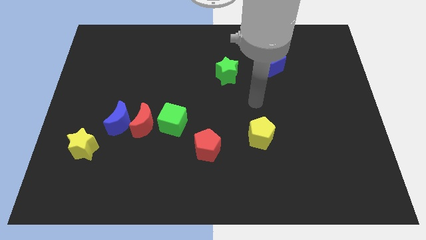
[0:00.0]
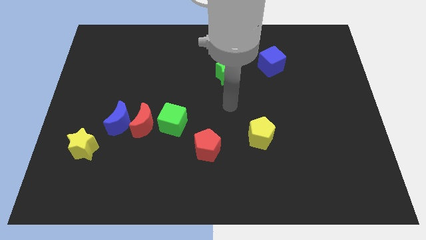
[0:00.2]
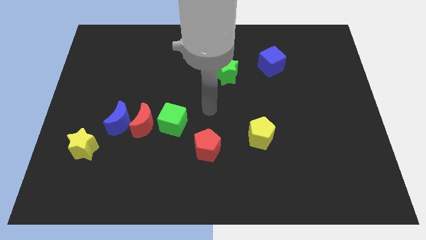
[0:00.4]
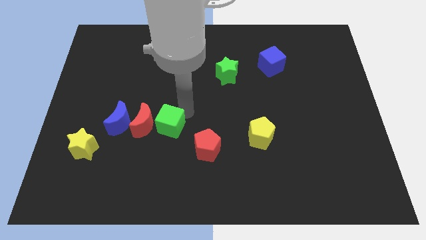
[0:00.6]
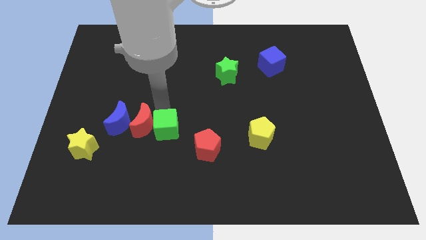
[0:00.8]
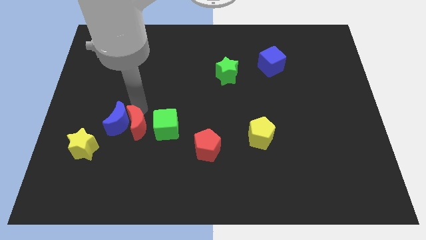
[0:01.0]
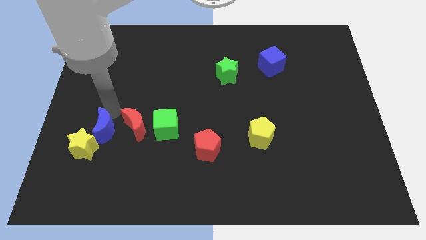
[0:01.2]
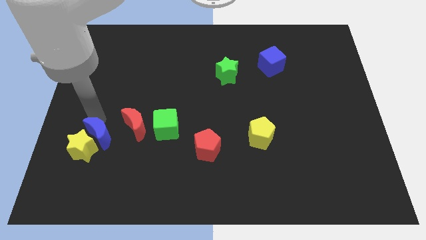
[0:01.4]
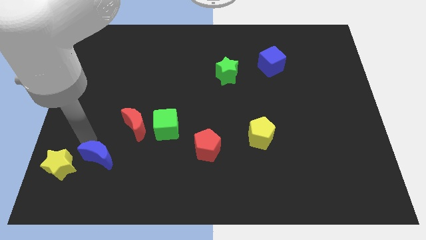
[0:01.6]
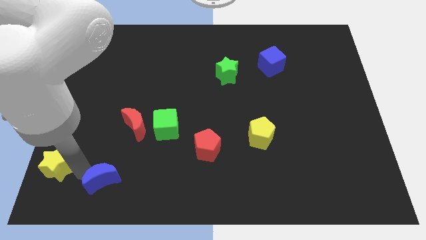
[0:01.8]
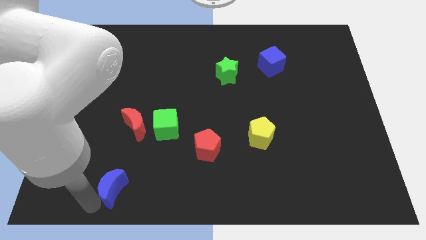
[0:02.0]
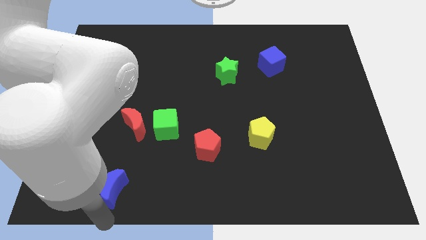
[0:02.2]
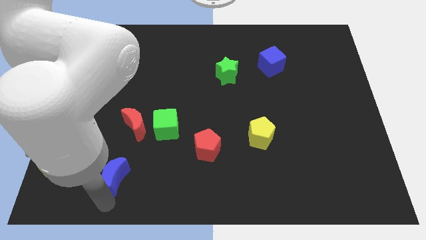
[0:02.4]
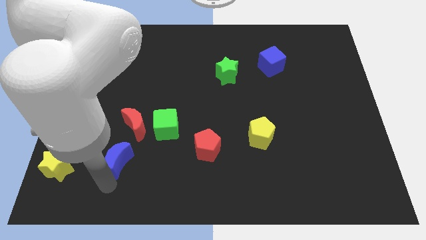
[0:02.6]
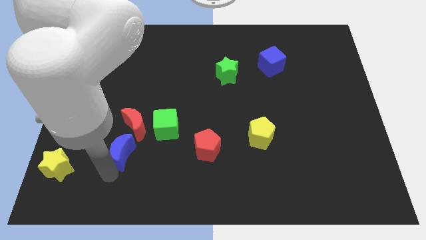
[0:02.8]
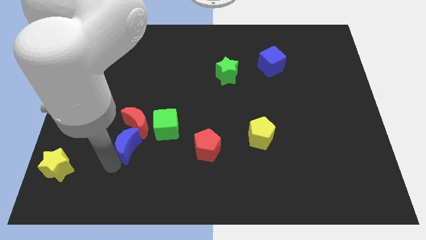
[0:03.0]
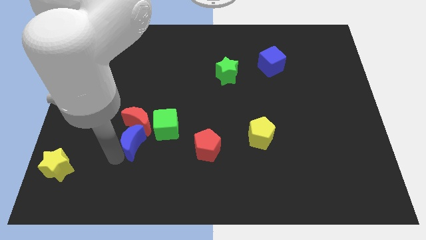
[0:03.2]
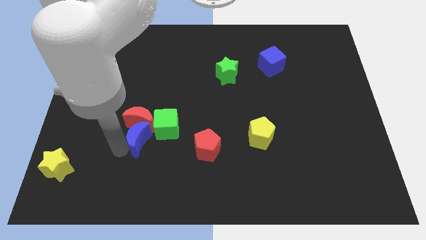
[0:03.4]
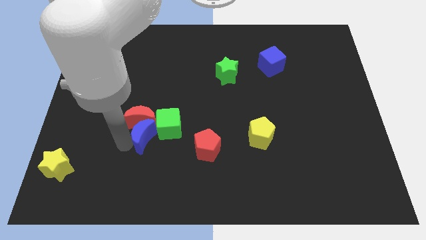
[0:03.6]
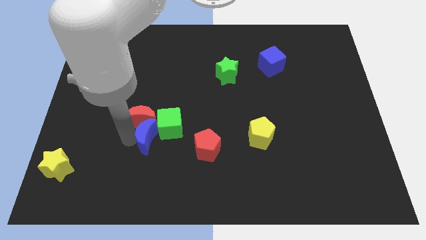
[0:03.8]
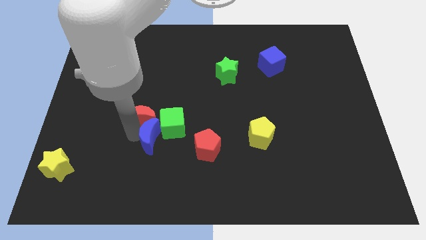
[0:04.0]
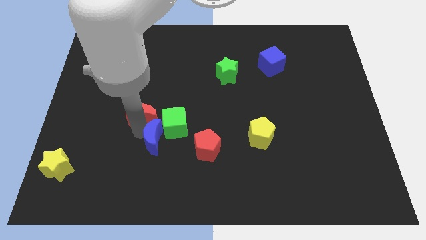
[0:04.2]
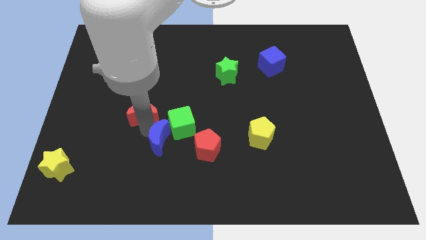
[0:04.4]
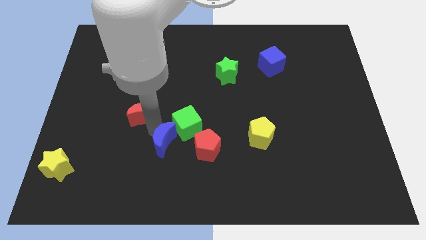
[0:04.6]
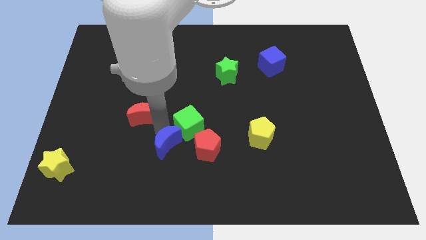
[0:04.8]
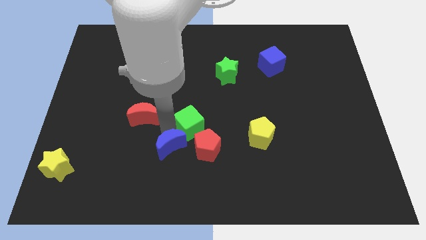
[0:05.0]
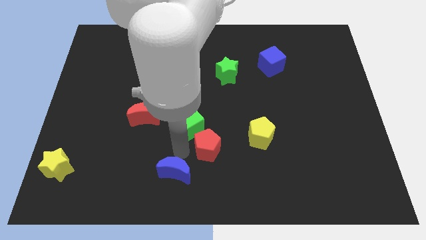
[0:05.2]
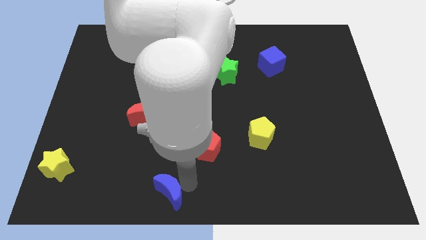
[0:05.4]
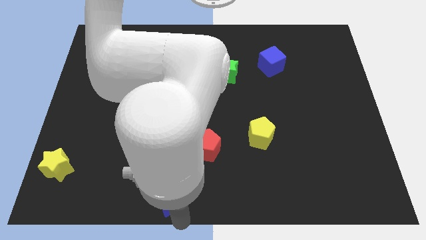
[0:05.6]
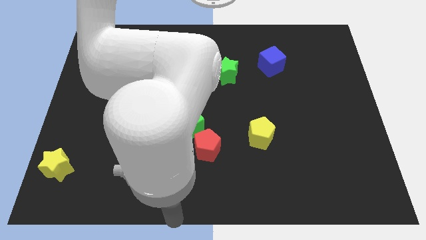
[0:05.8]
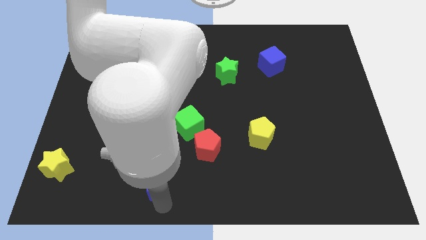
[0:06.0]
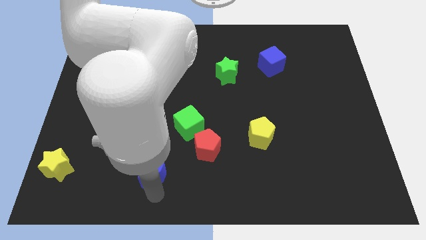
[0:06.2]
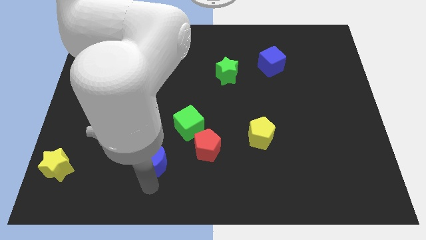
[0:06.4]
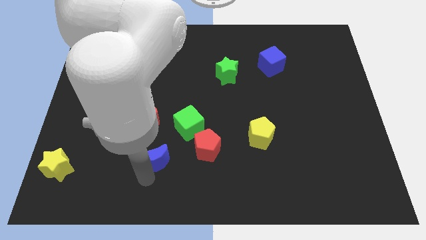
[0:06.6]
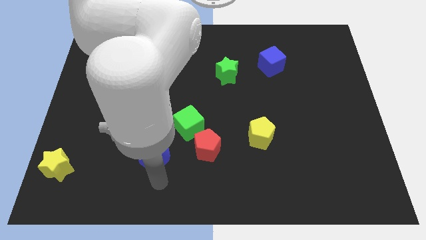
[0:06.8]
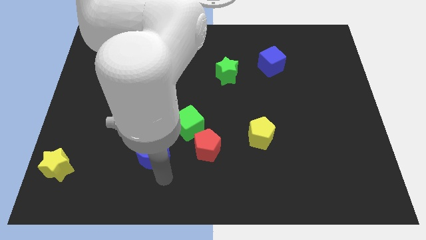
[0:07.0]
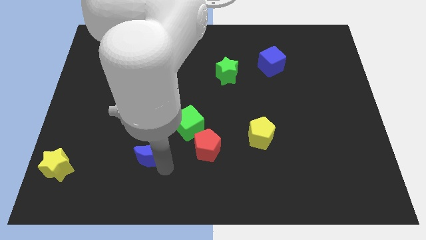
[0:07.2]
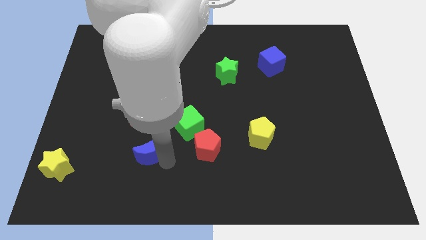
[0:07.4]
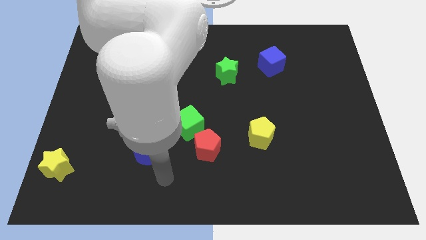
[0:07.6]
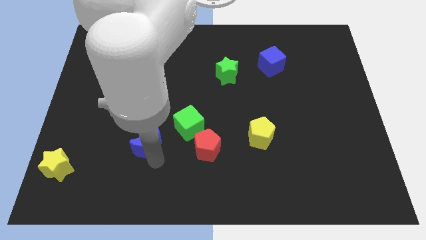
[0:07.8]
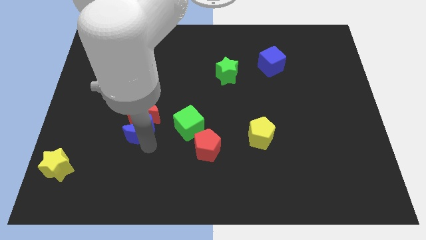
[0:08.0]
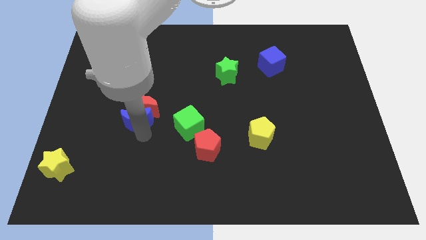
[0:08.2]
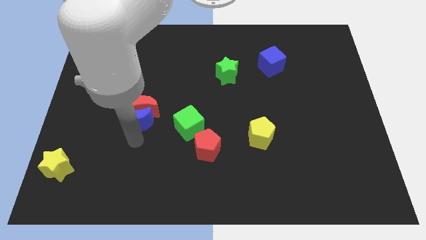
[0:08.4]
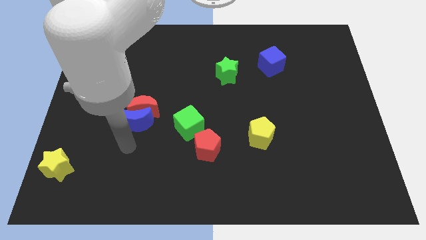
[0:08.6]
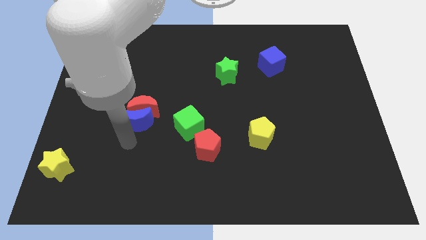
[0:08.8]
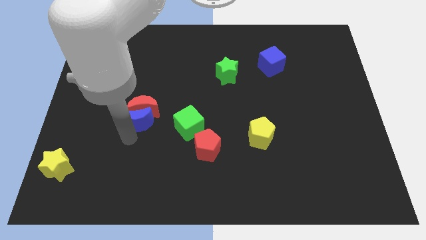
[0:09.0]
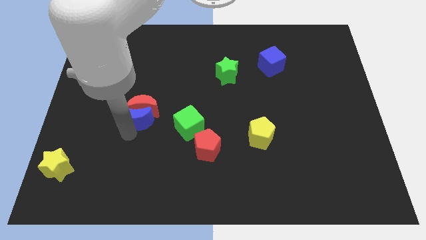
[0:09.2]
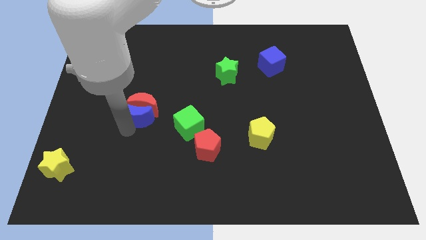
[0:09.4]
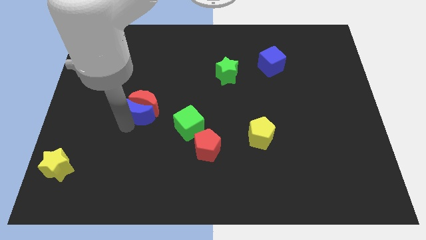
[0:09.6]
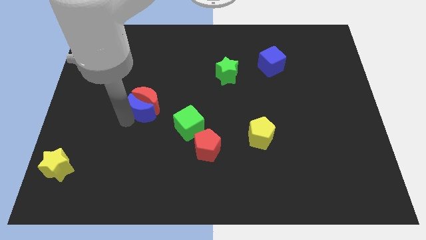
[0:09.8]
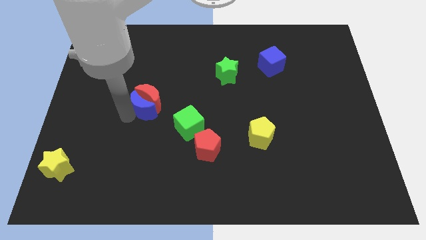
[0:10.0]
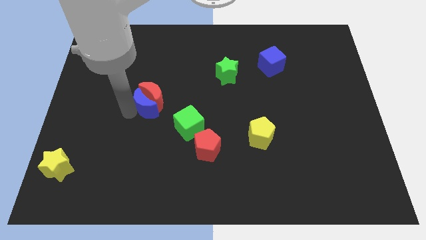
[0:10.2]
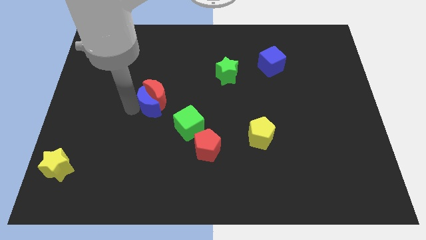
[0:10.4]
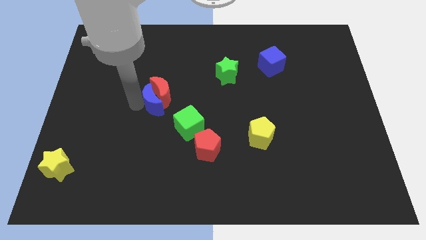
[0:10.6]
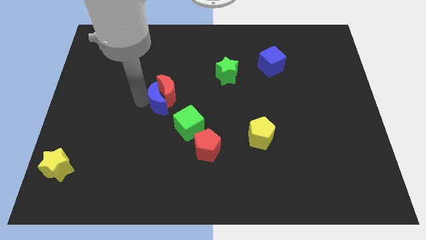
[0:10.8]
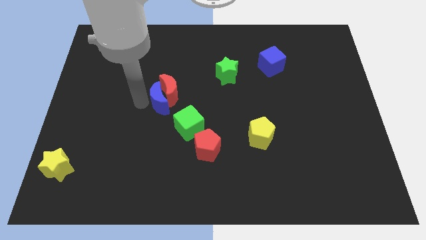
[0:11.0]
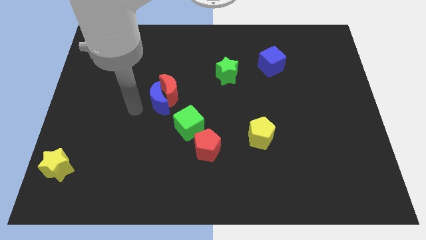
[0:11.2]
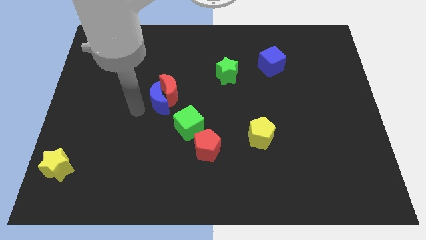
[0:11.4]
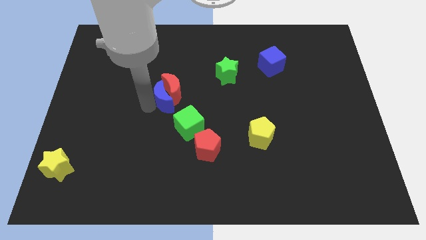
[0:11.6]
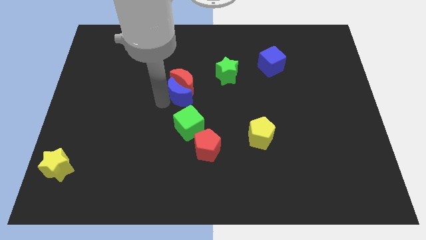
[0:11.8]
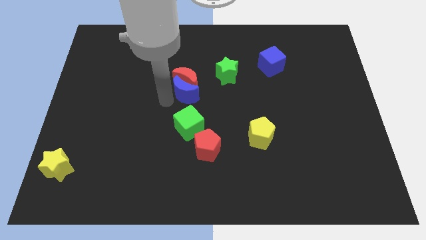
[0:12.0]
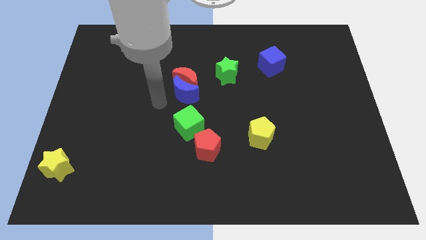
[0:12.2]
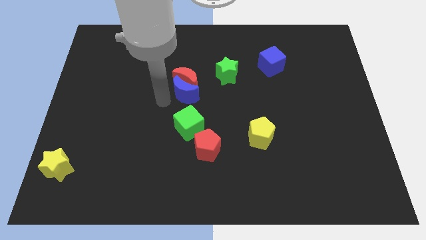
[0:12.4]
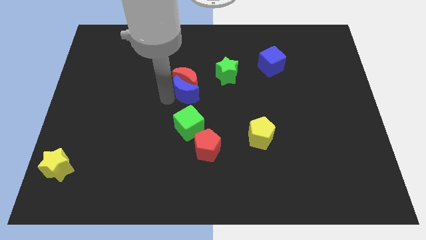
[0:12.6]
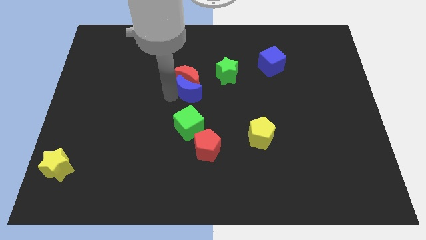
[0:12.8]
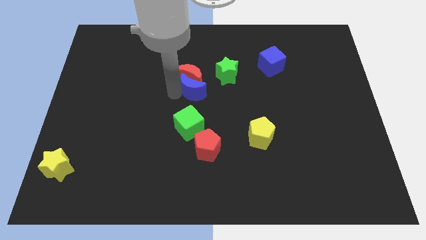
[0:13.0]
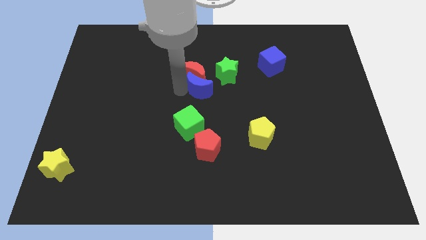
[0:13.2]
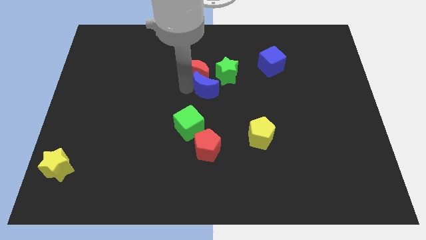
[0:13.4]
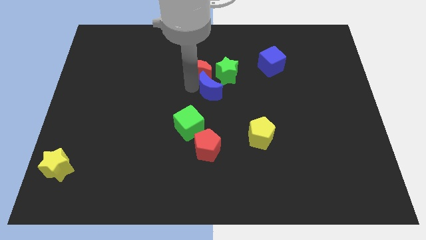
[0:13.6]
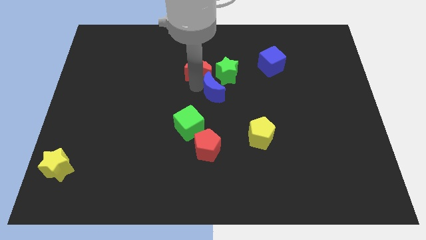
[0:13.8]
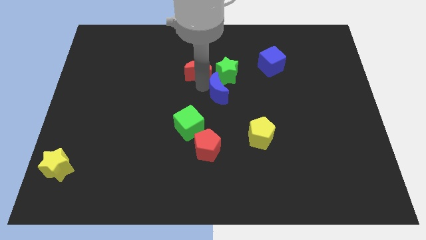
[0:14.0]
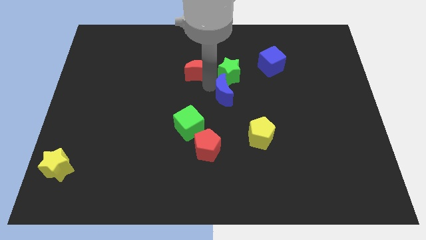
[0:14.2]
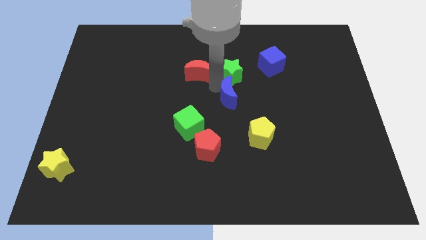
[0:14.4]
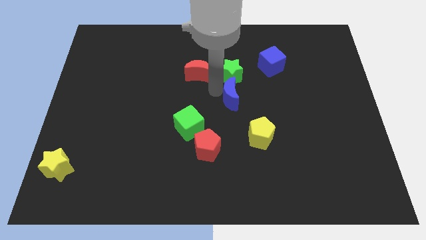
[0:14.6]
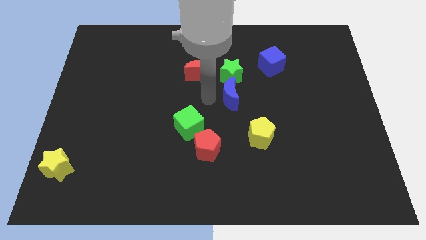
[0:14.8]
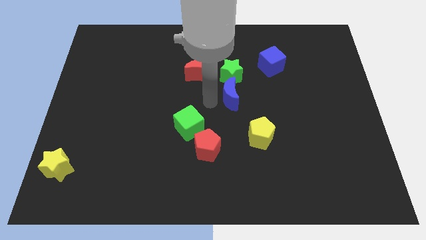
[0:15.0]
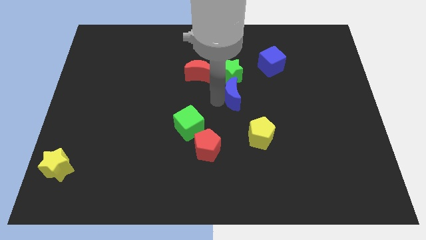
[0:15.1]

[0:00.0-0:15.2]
move the blue moon to the bottom right side of the green star
